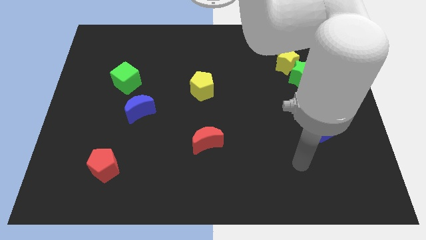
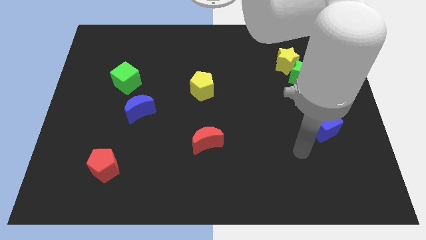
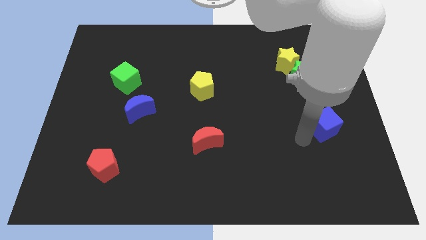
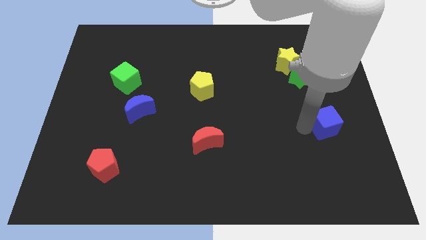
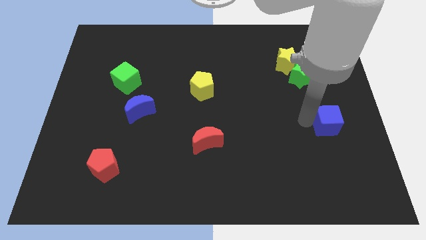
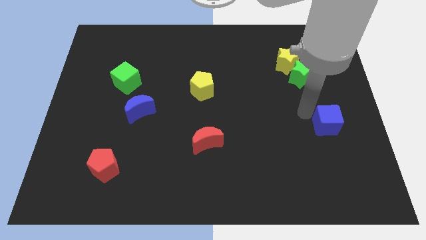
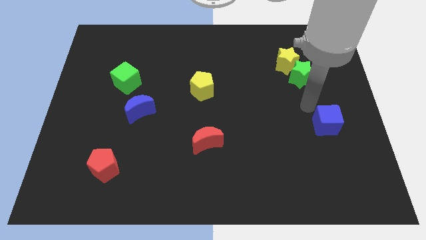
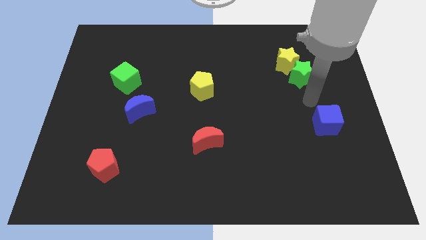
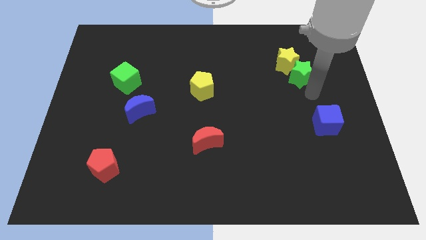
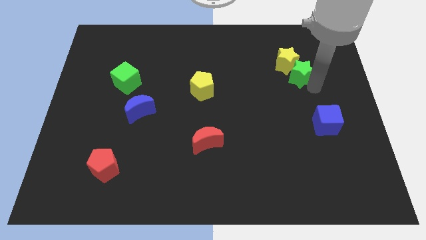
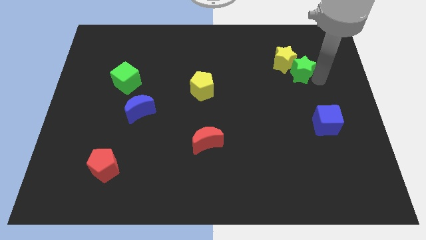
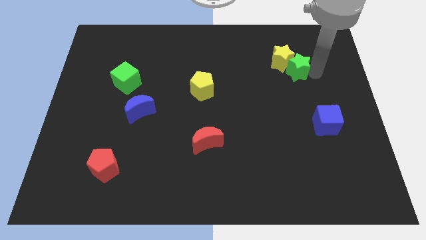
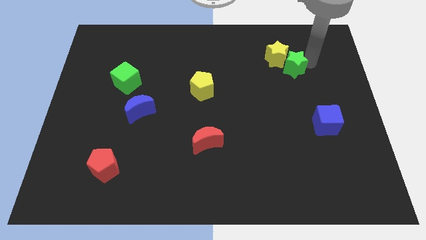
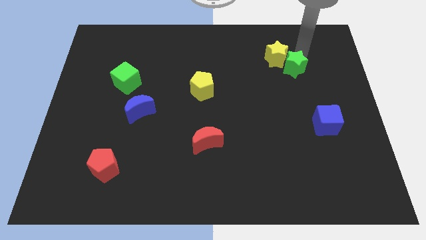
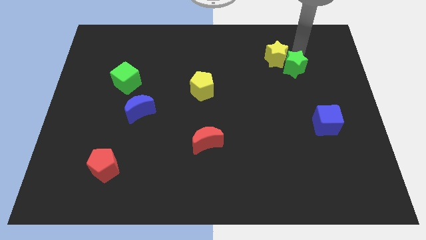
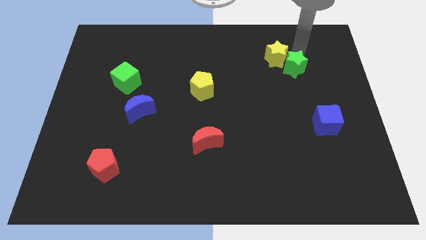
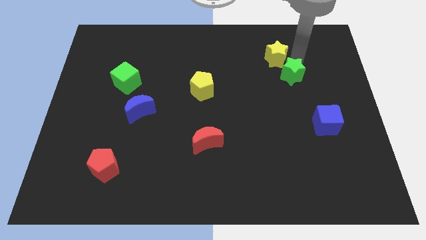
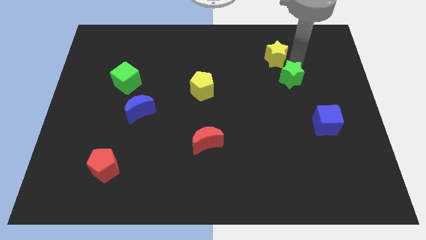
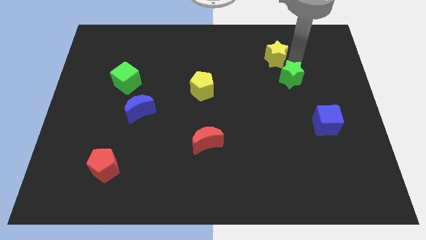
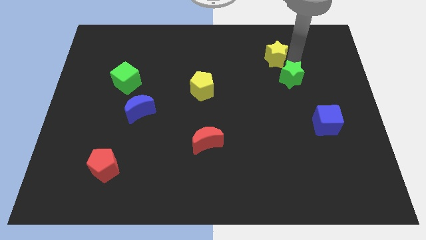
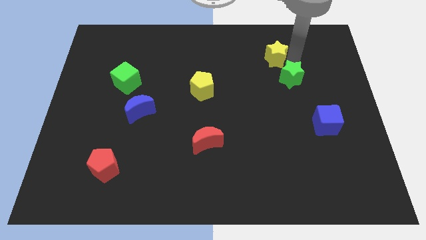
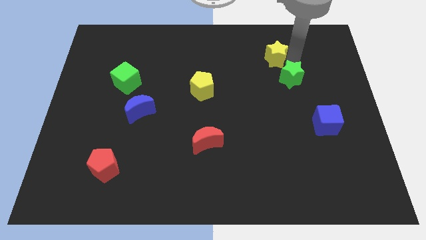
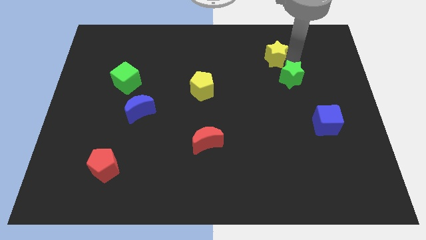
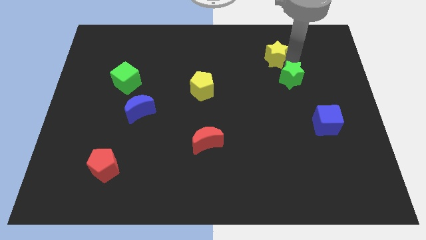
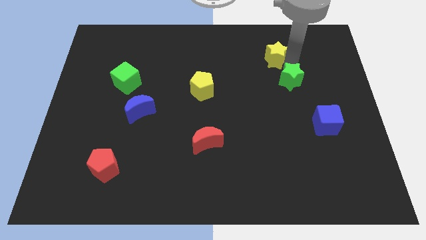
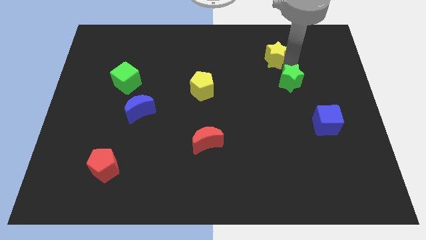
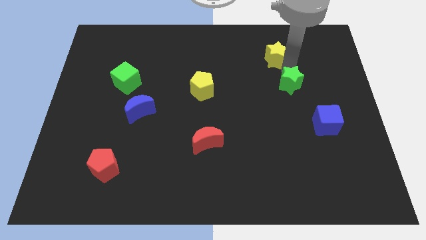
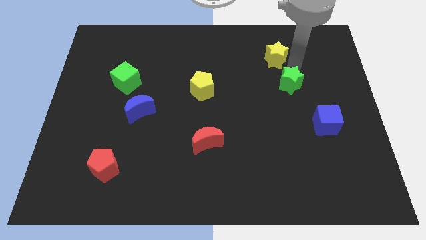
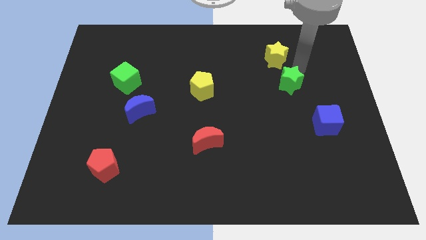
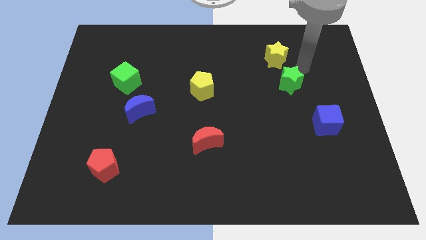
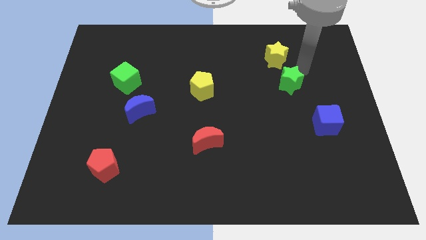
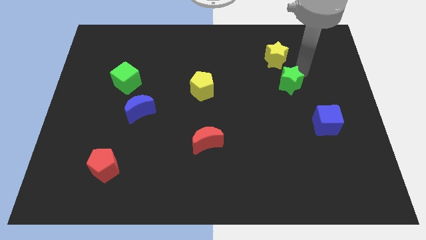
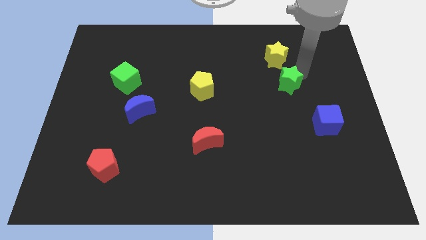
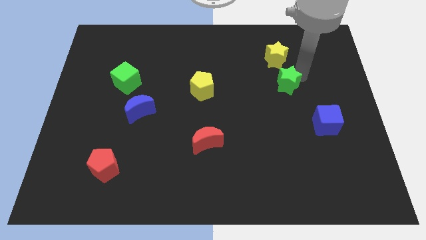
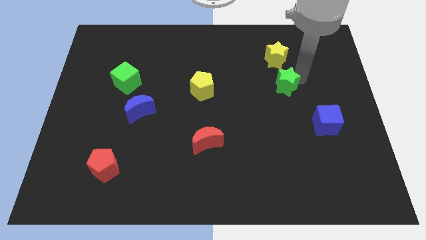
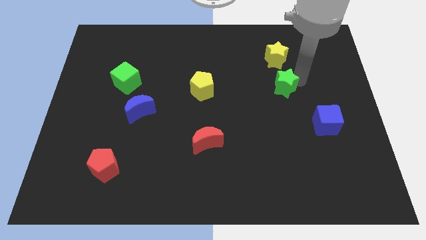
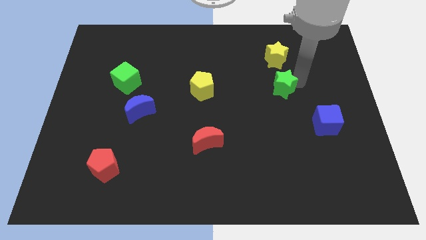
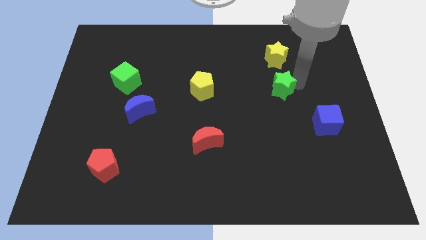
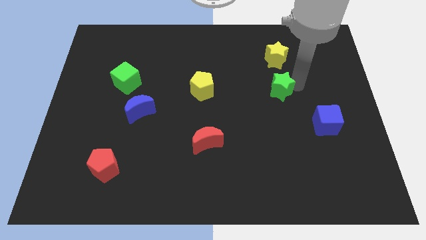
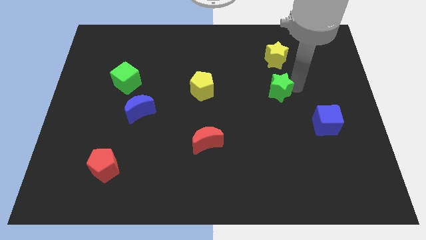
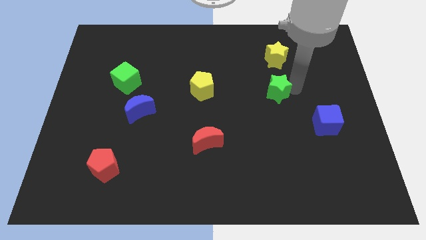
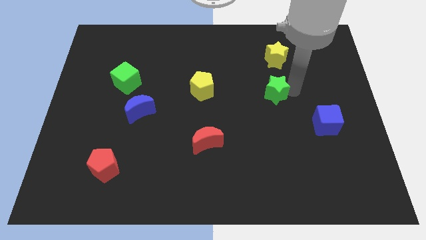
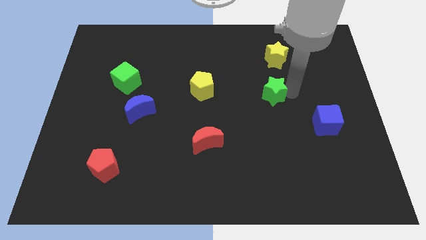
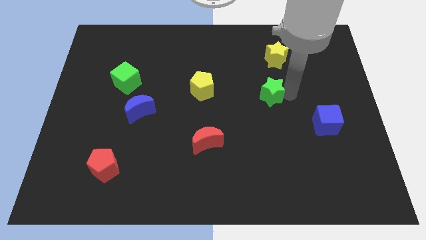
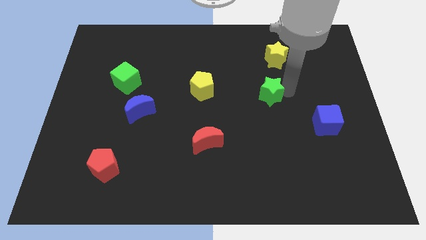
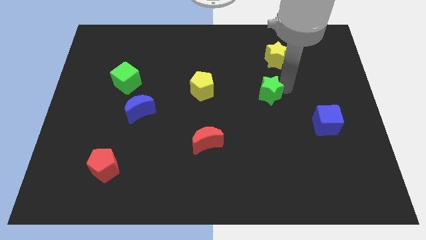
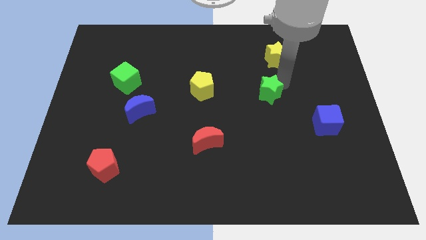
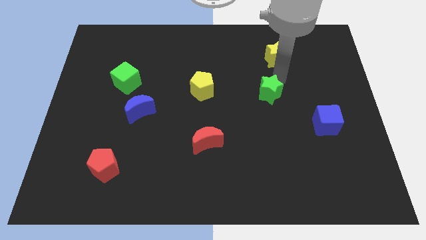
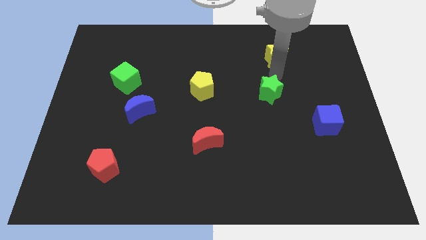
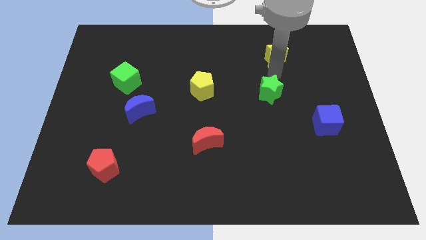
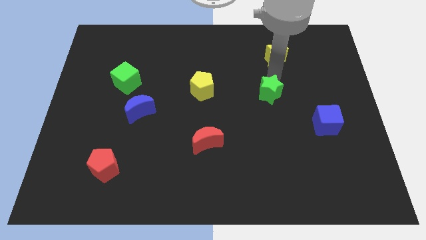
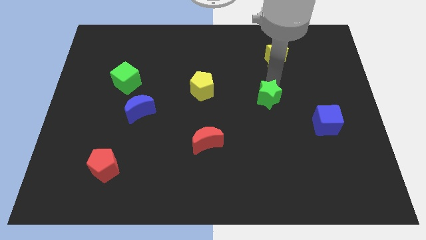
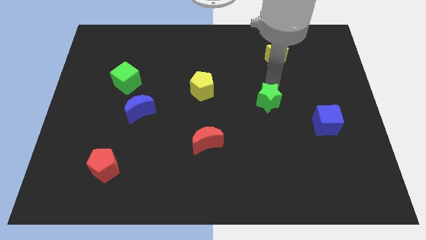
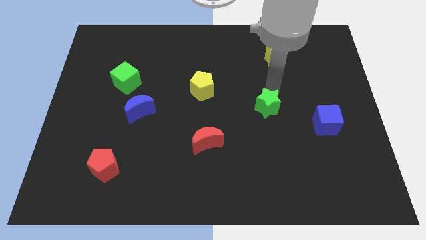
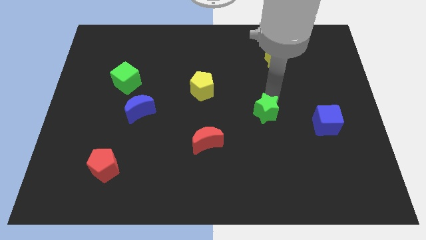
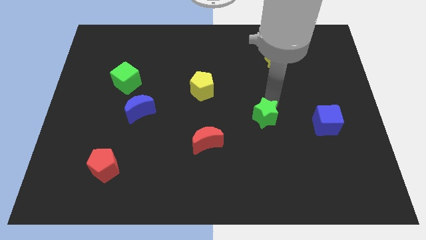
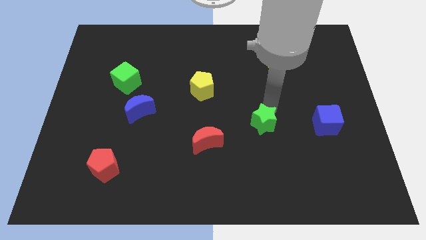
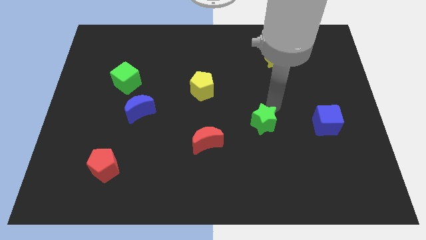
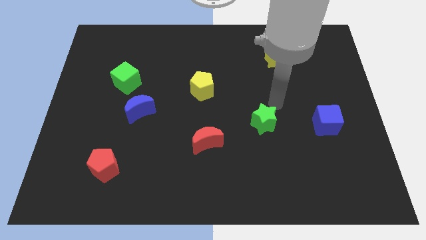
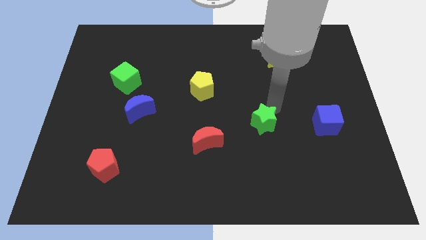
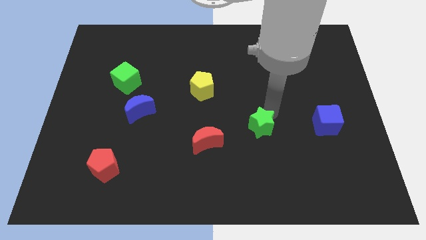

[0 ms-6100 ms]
put the green star right of the red moon
